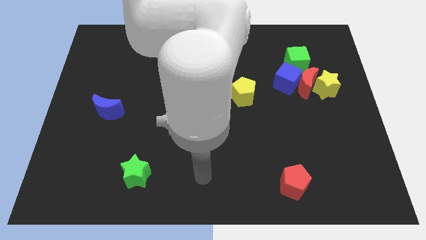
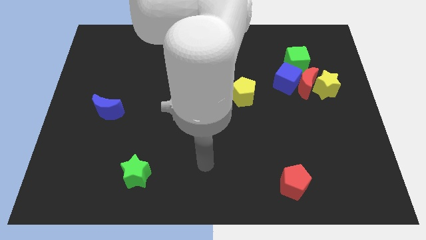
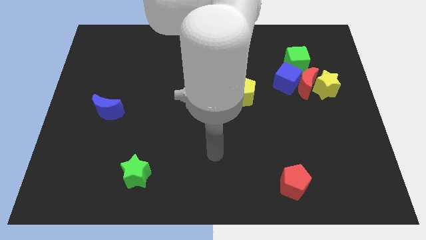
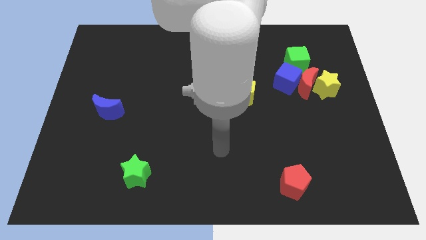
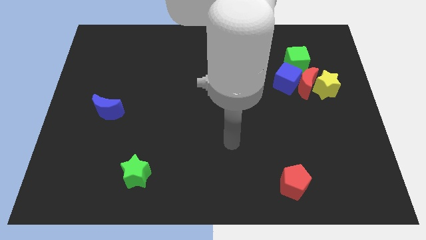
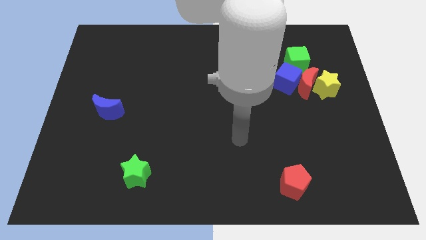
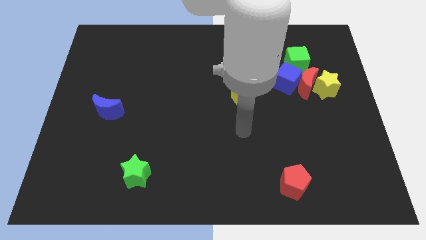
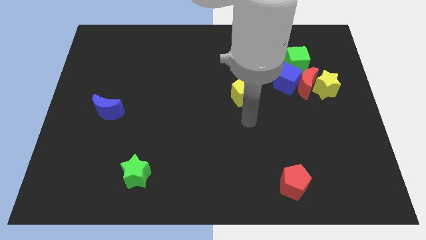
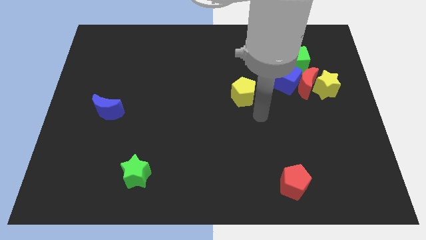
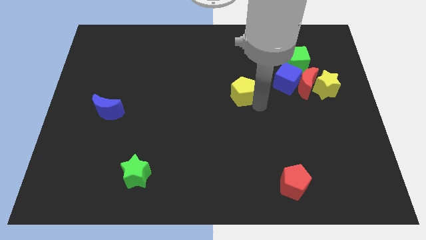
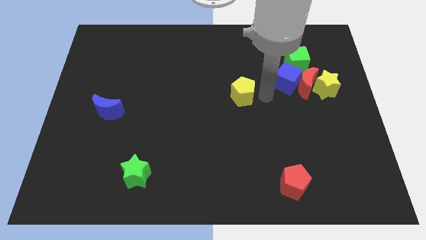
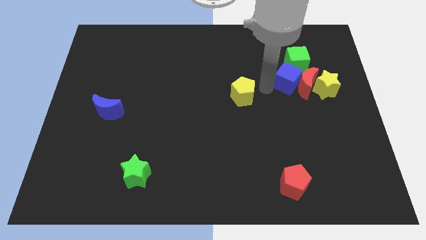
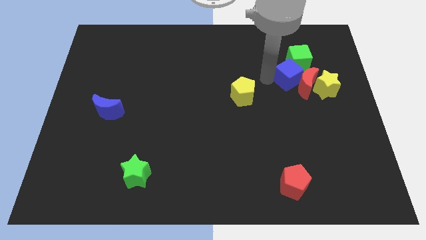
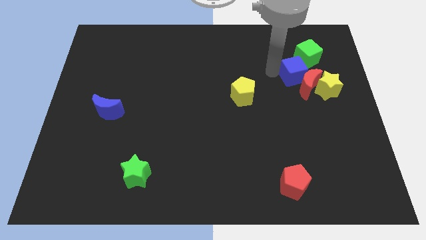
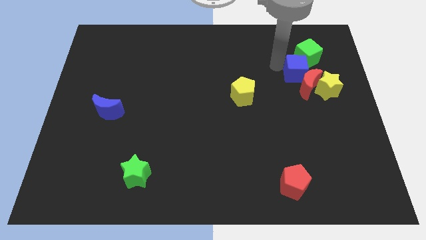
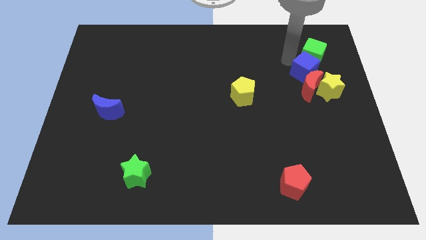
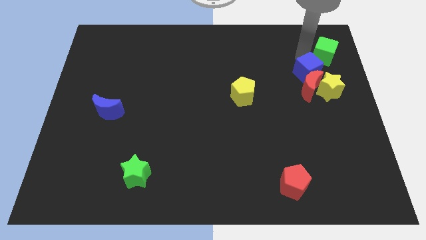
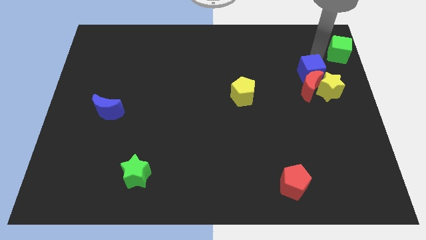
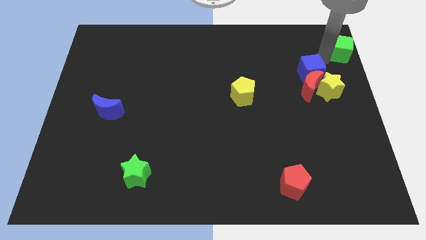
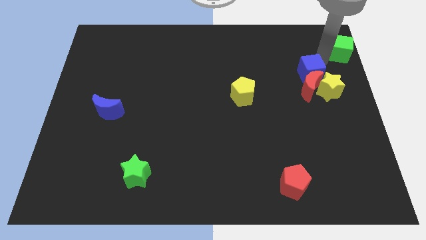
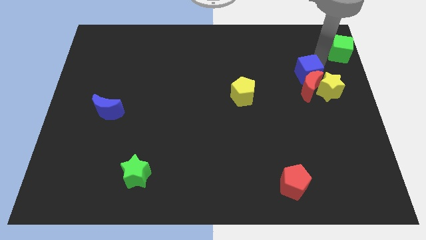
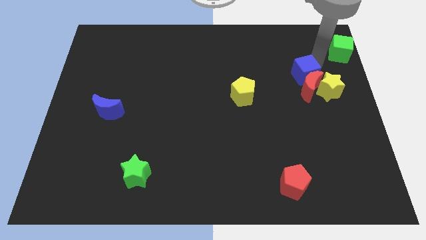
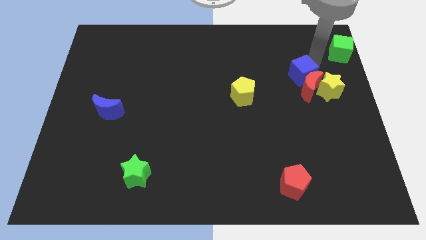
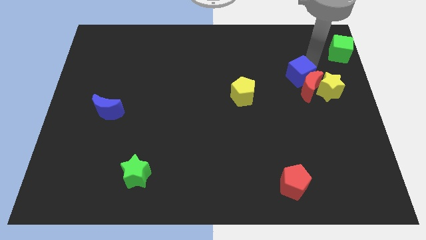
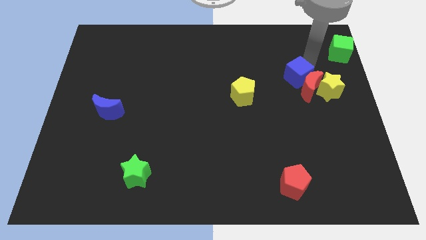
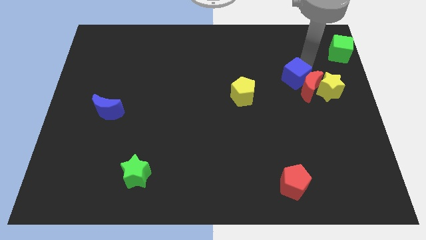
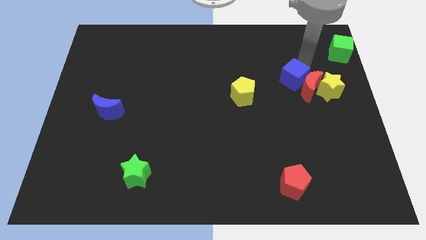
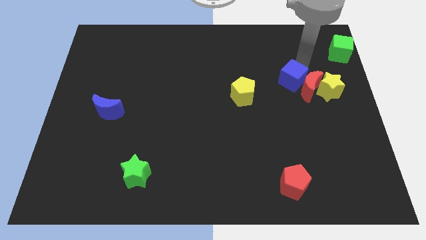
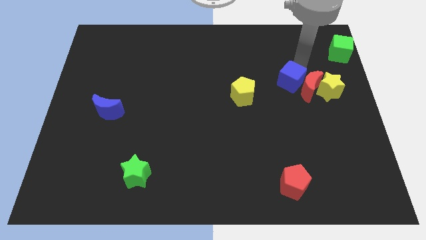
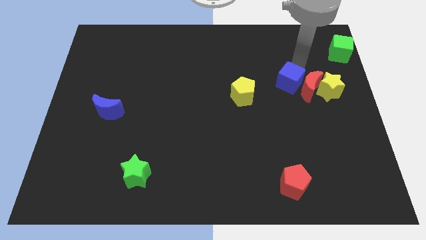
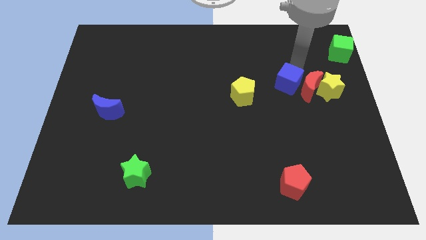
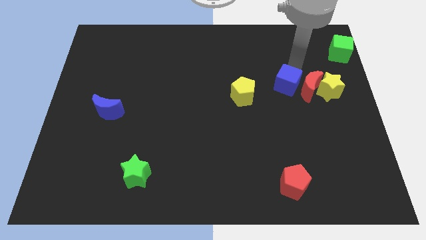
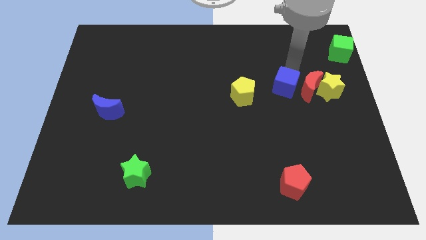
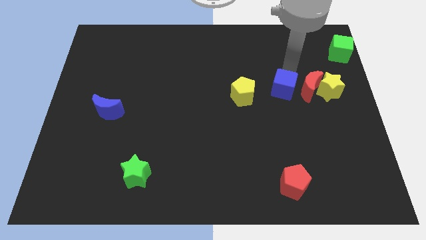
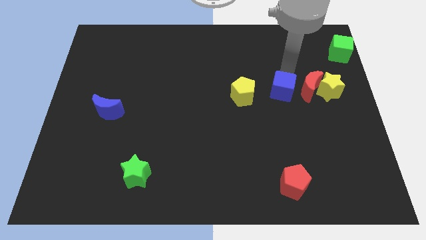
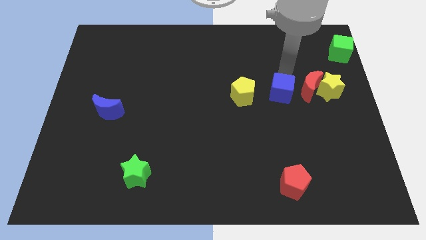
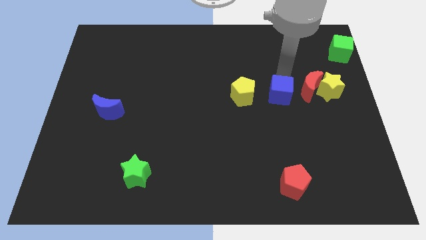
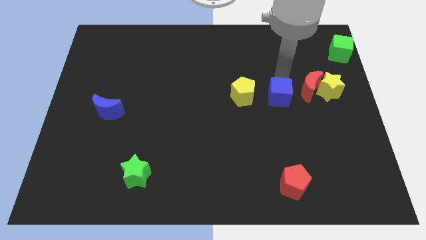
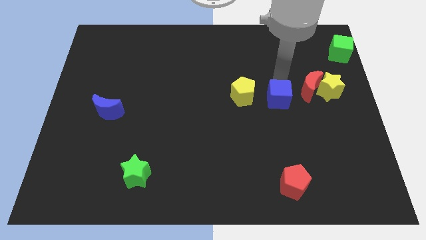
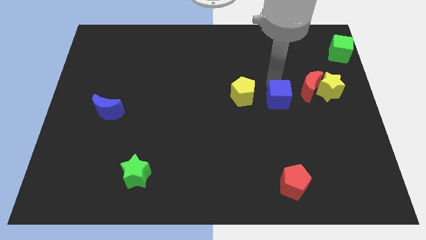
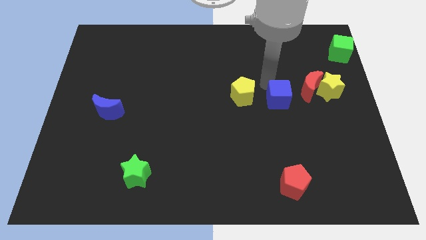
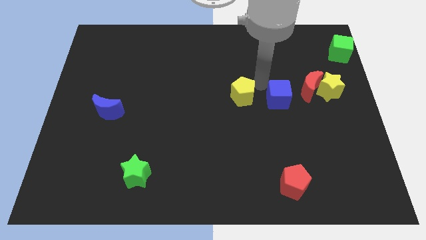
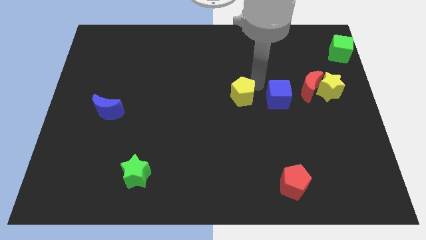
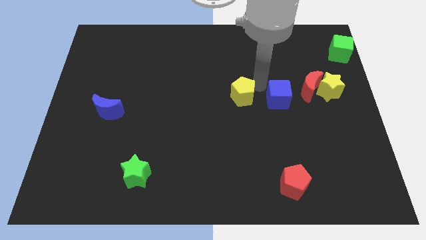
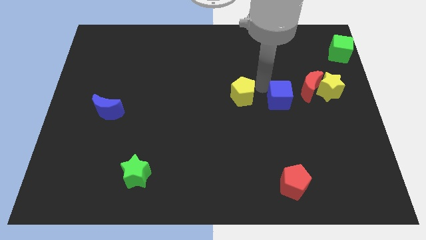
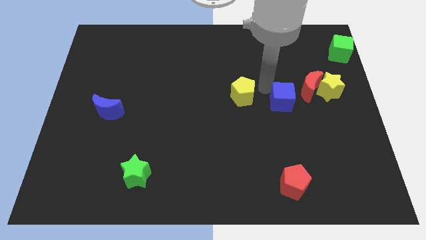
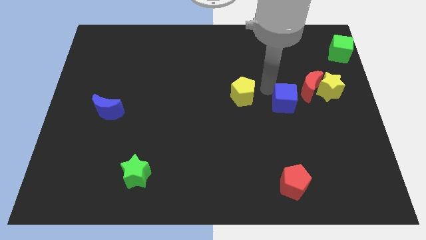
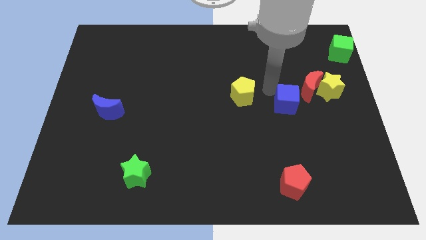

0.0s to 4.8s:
slide the blue cube a little downwards

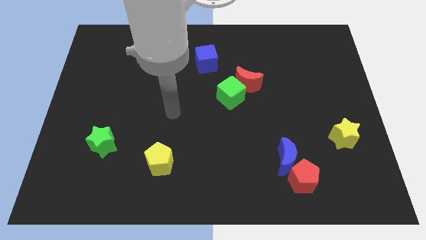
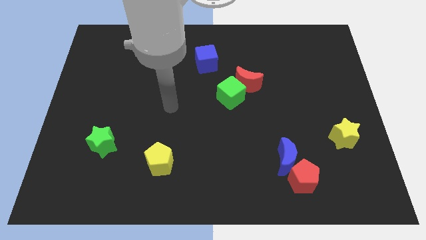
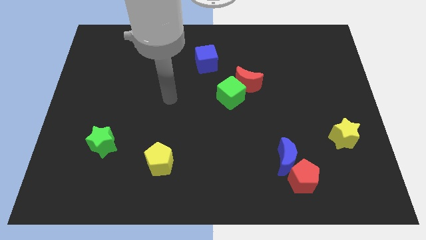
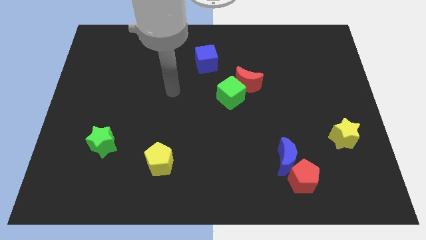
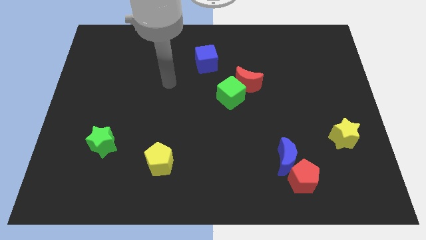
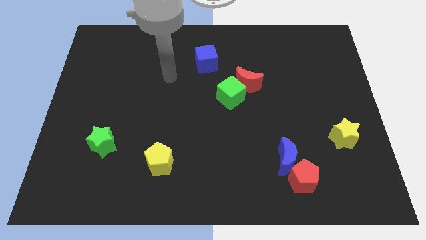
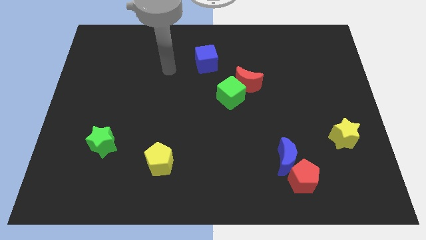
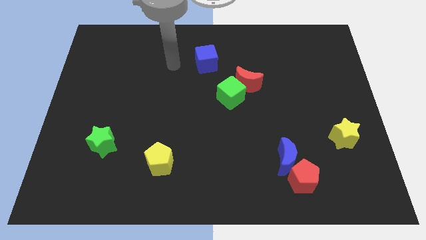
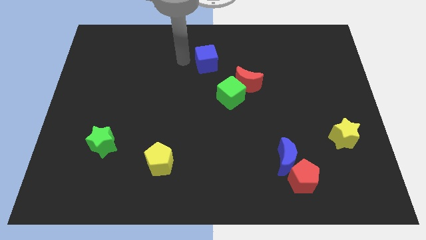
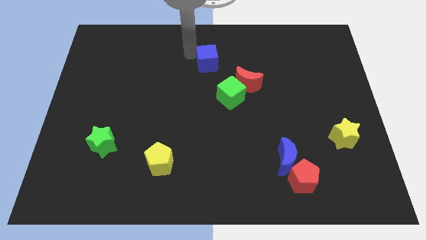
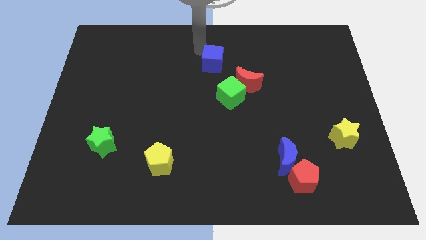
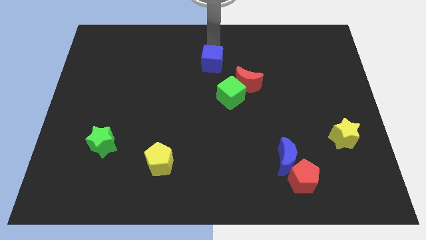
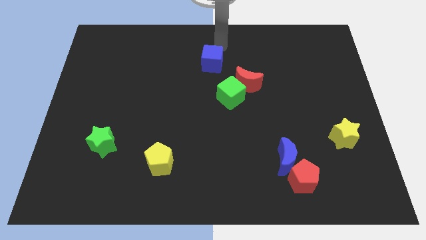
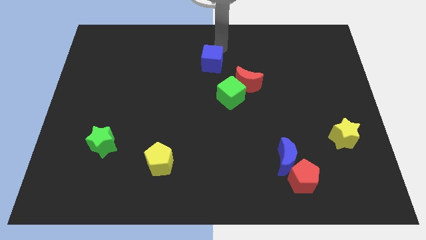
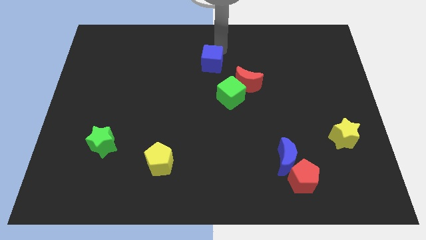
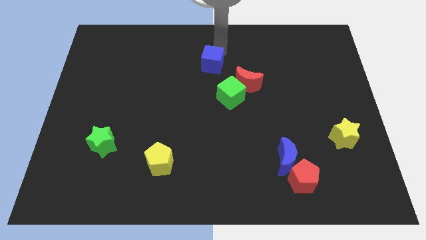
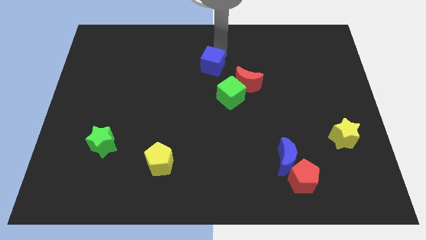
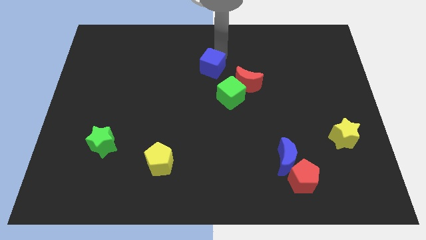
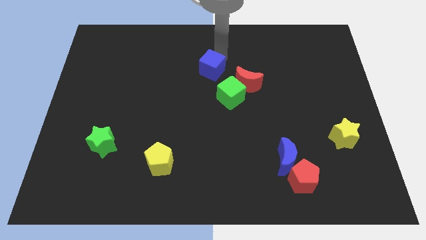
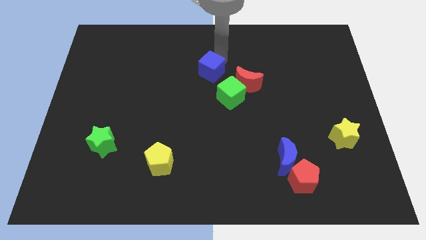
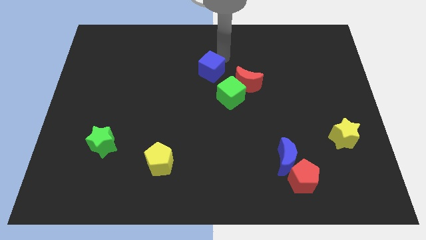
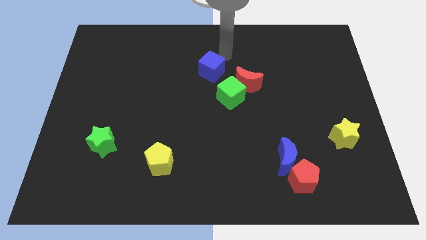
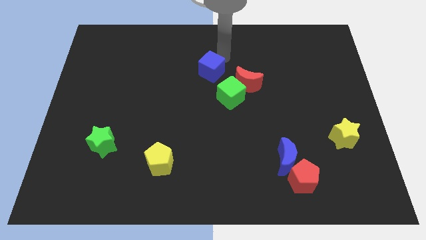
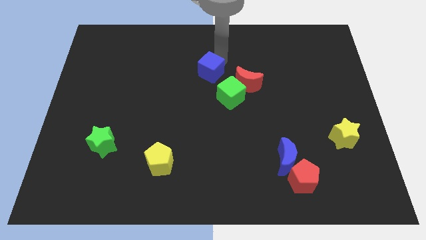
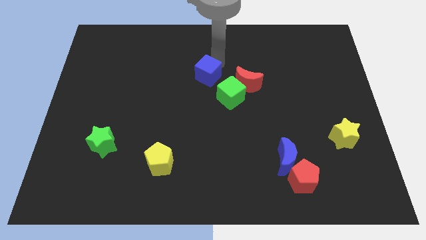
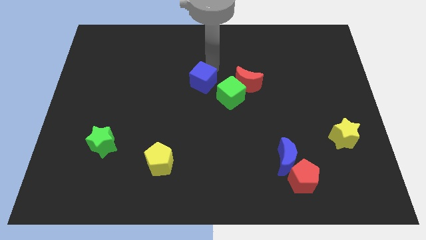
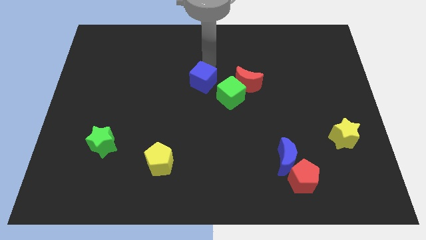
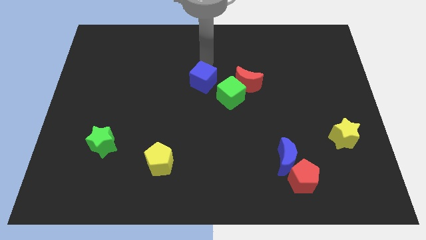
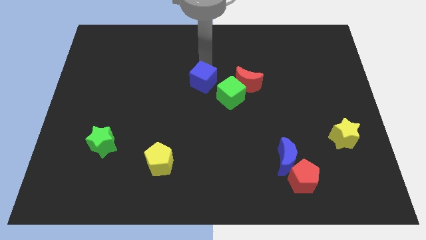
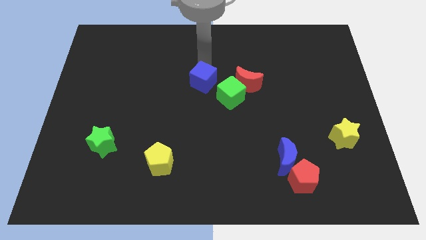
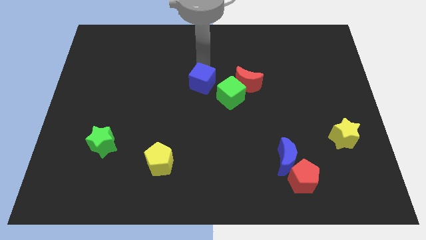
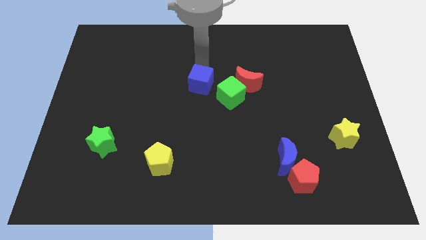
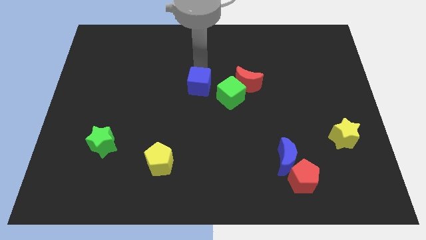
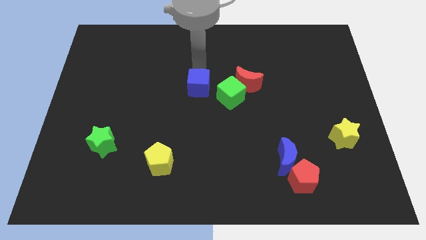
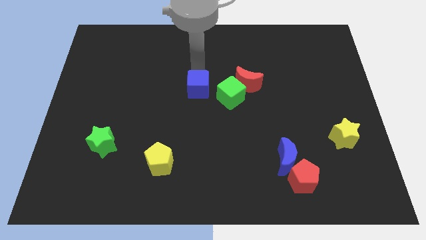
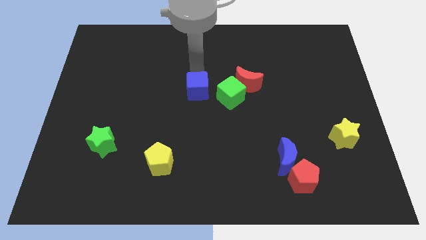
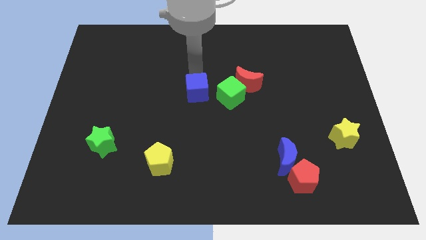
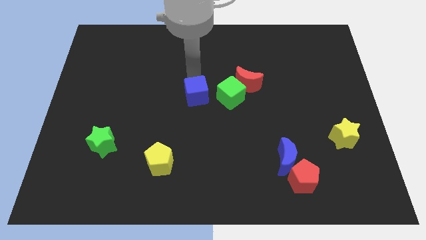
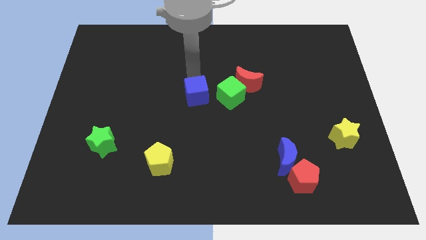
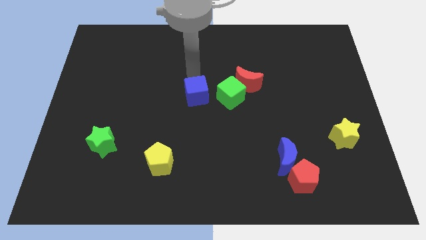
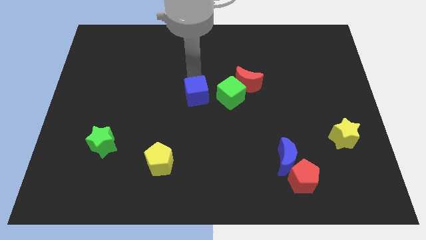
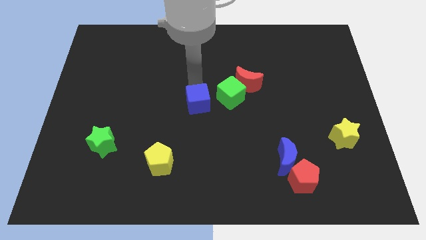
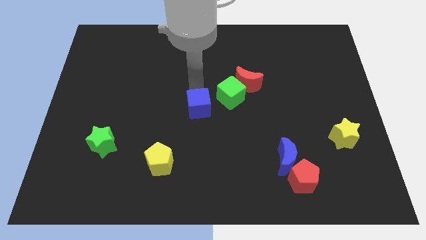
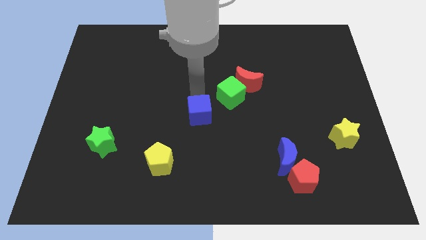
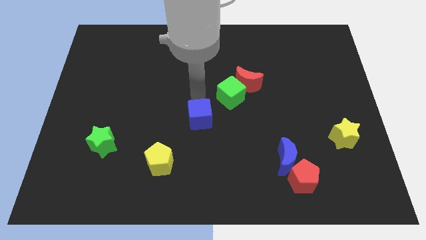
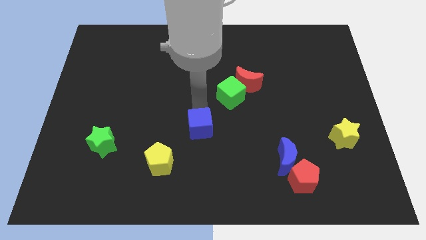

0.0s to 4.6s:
slide the blue cube downwards
